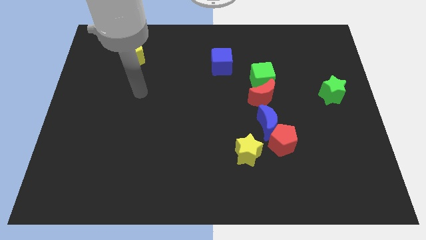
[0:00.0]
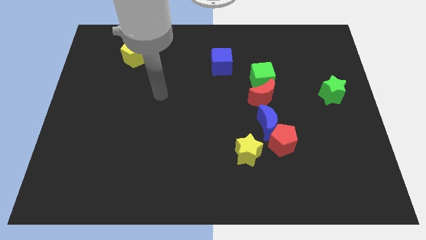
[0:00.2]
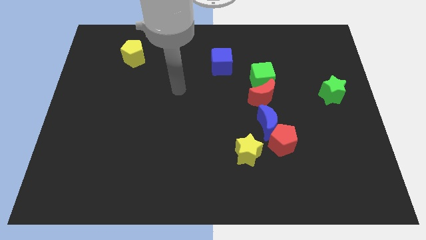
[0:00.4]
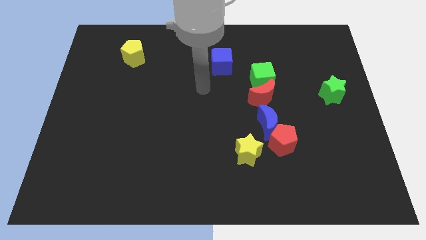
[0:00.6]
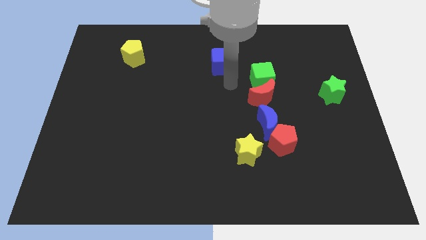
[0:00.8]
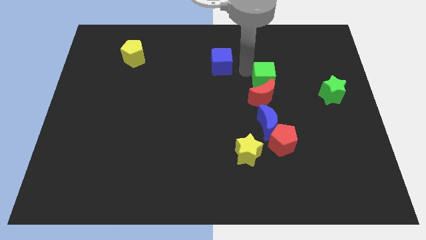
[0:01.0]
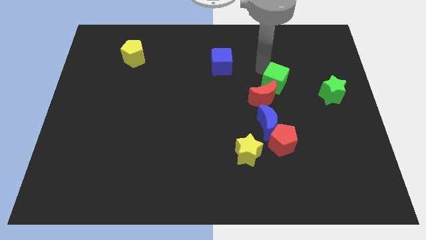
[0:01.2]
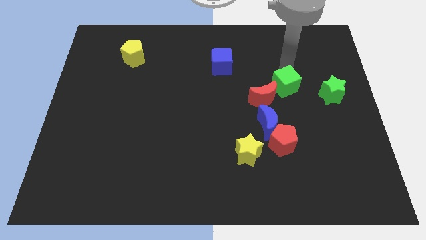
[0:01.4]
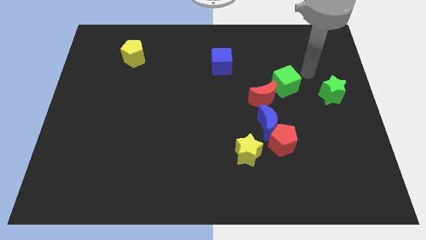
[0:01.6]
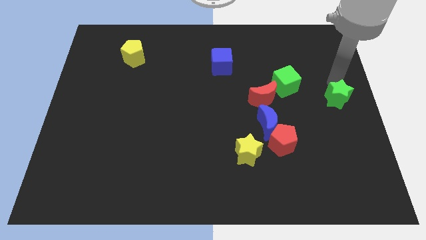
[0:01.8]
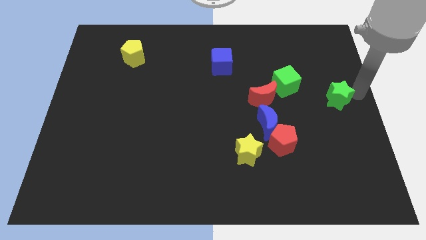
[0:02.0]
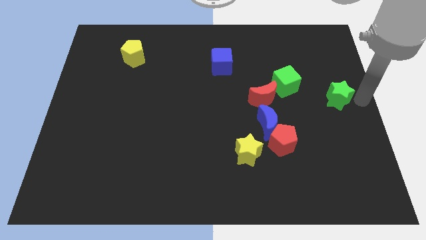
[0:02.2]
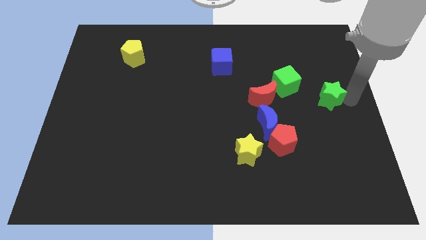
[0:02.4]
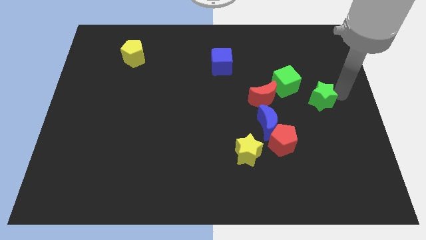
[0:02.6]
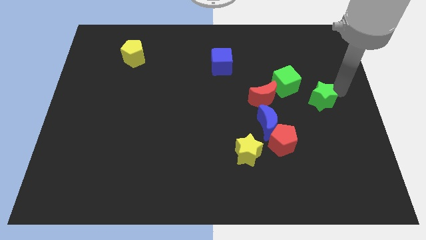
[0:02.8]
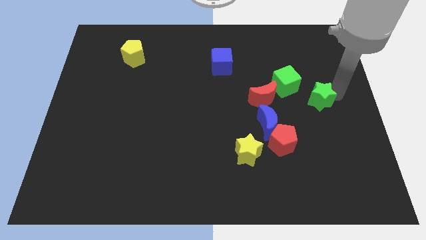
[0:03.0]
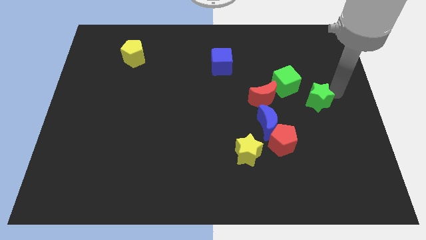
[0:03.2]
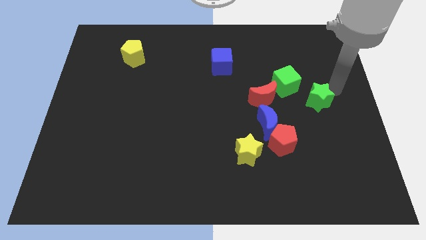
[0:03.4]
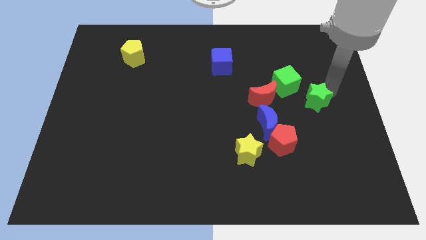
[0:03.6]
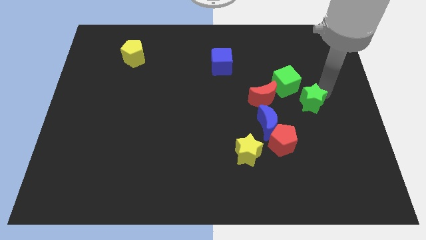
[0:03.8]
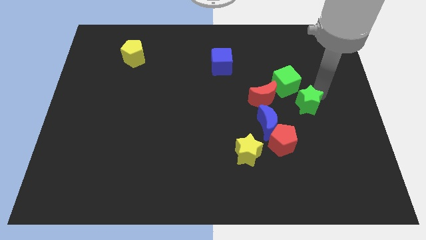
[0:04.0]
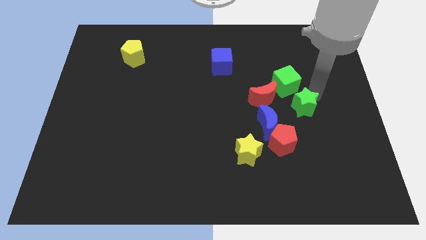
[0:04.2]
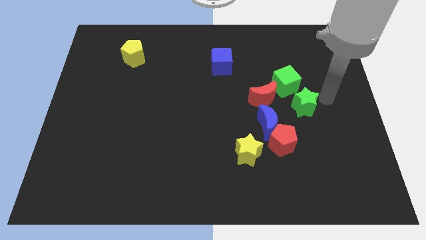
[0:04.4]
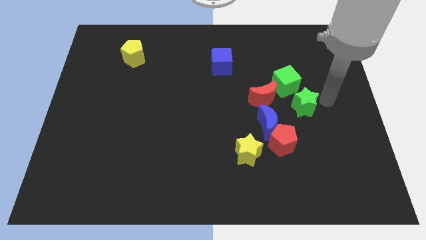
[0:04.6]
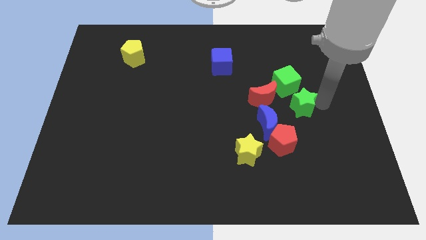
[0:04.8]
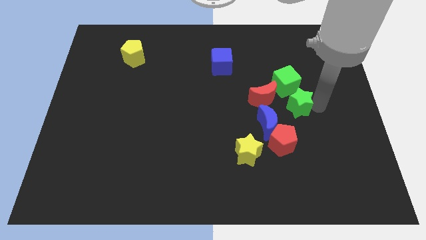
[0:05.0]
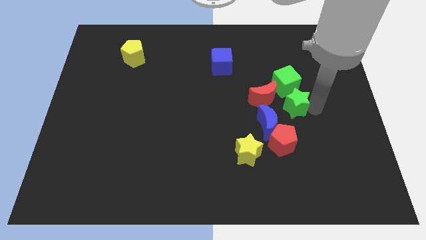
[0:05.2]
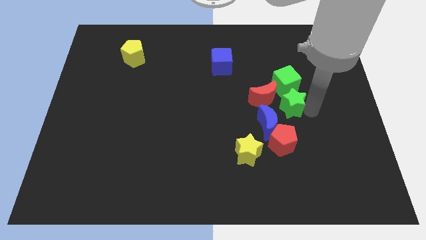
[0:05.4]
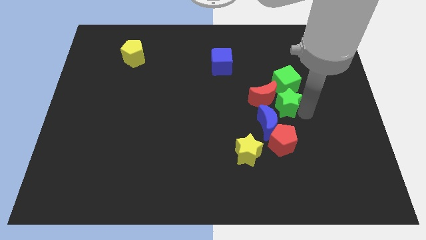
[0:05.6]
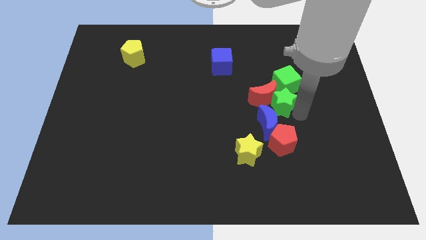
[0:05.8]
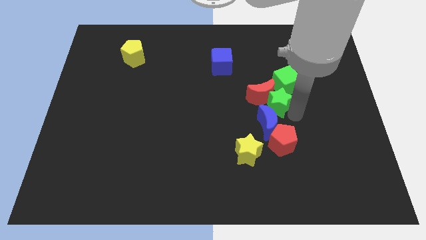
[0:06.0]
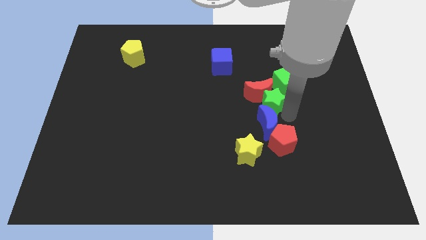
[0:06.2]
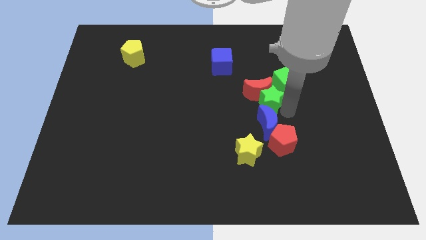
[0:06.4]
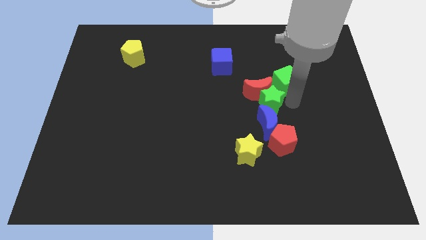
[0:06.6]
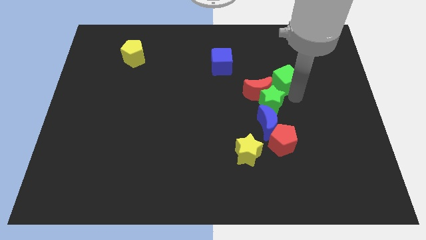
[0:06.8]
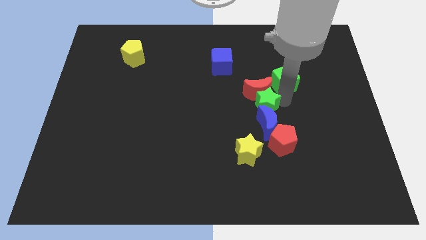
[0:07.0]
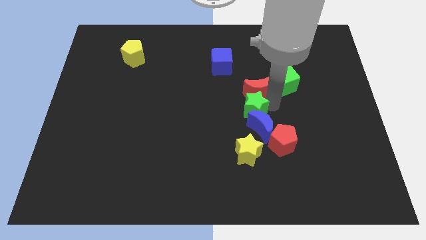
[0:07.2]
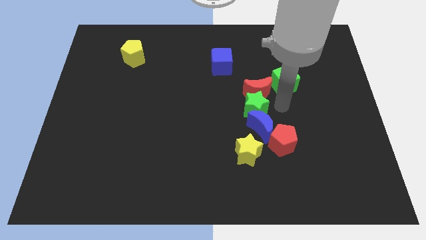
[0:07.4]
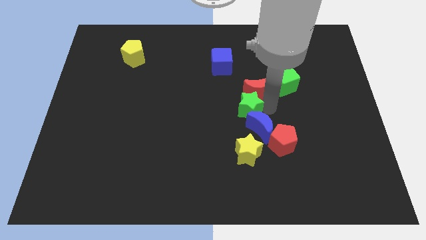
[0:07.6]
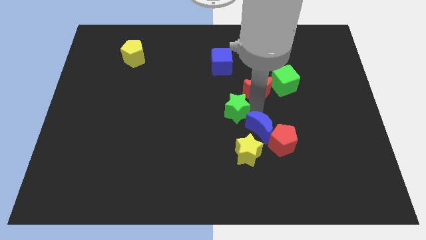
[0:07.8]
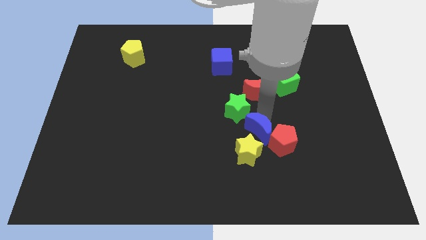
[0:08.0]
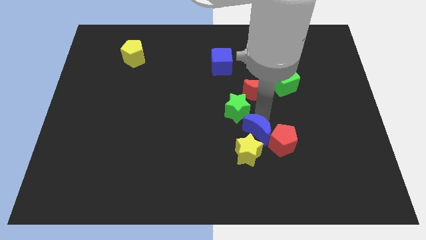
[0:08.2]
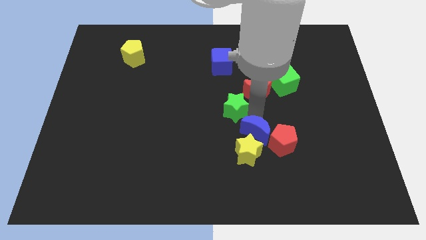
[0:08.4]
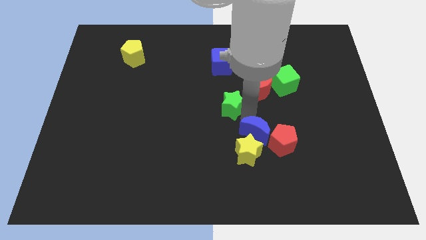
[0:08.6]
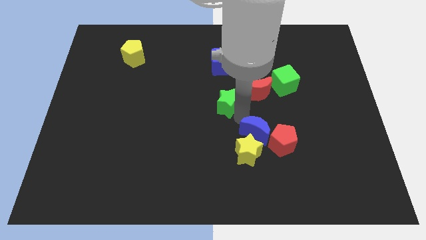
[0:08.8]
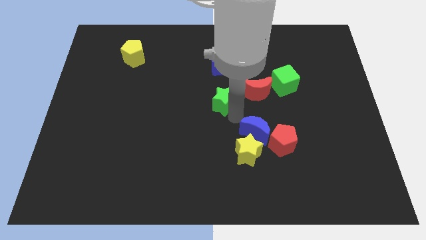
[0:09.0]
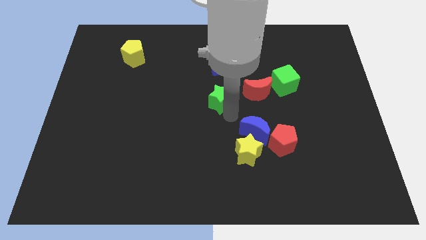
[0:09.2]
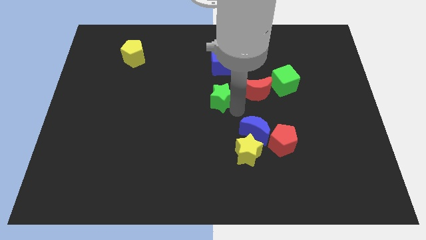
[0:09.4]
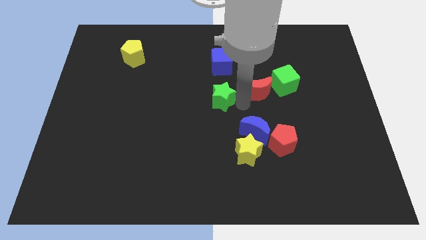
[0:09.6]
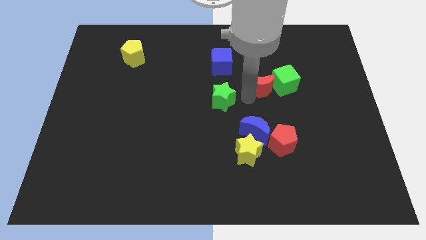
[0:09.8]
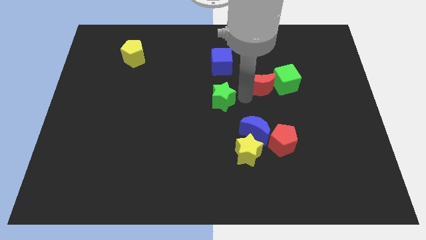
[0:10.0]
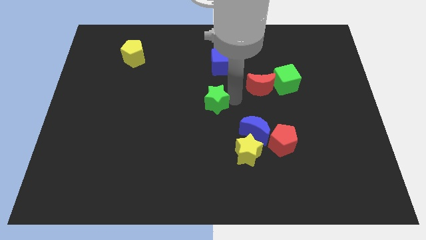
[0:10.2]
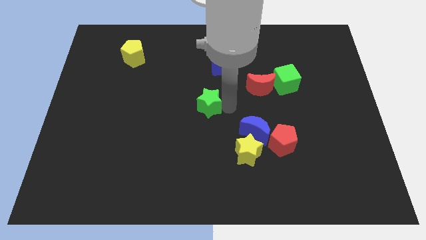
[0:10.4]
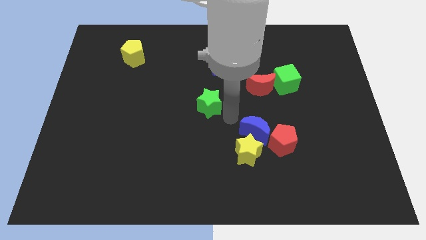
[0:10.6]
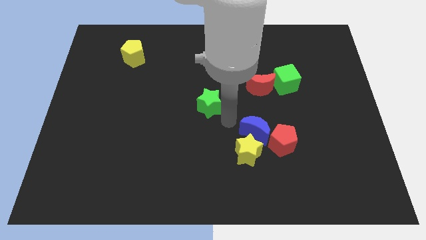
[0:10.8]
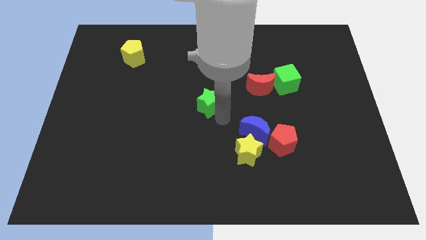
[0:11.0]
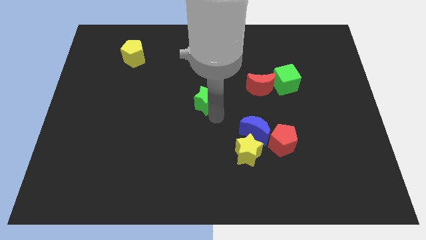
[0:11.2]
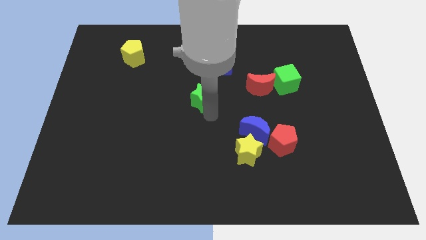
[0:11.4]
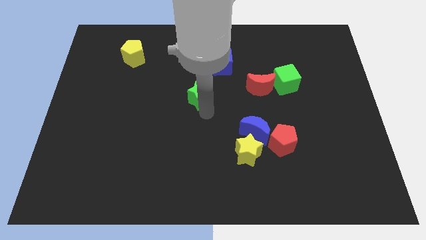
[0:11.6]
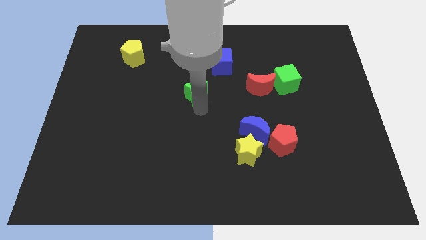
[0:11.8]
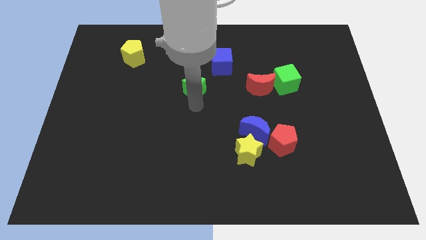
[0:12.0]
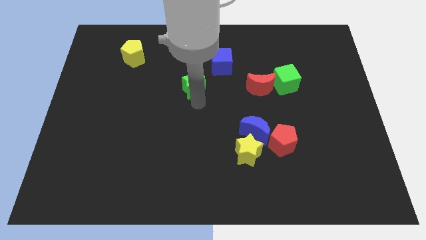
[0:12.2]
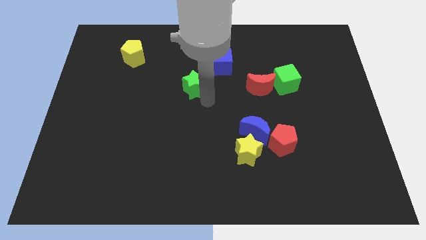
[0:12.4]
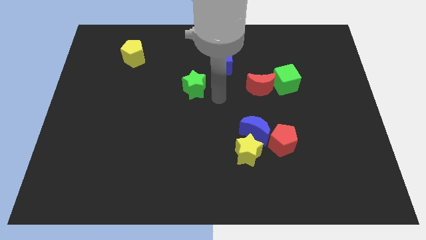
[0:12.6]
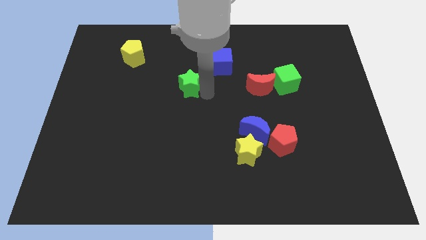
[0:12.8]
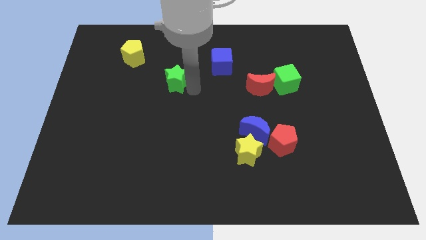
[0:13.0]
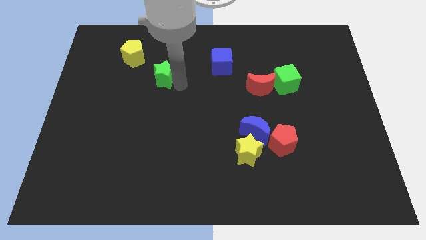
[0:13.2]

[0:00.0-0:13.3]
move the green star to the bottom right side of the yellow pentagon

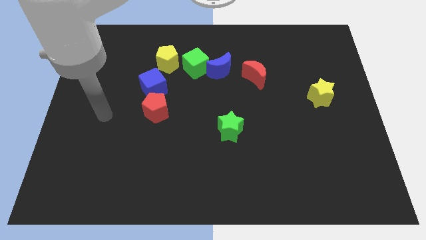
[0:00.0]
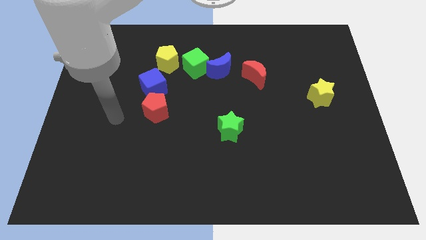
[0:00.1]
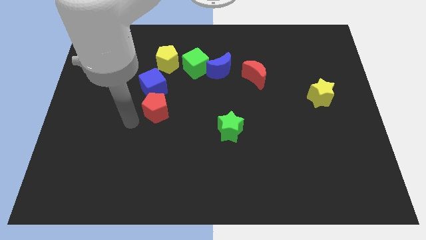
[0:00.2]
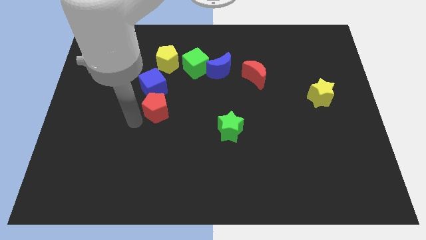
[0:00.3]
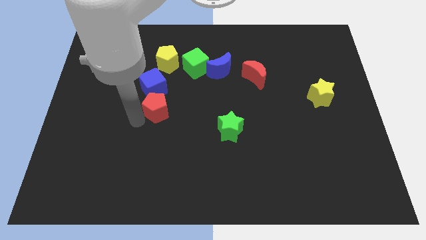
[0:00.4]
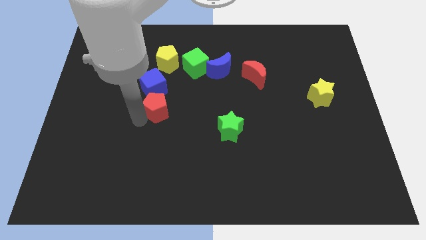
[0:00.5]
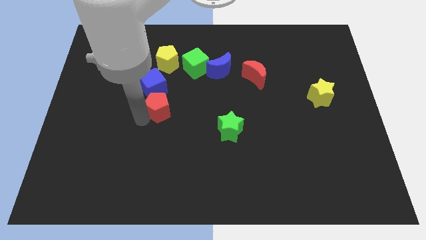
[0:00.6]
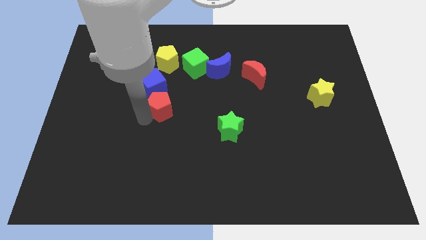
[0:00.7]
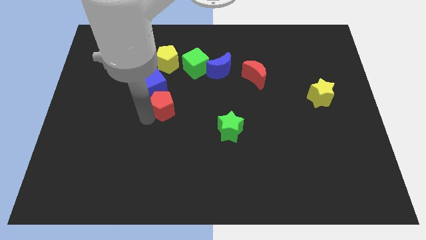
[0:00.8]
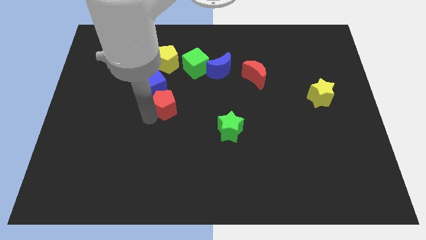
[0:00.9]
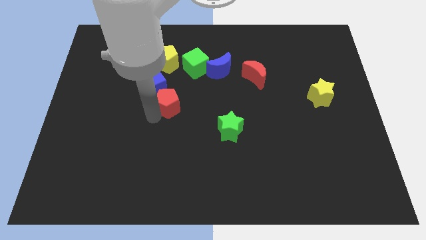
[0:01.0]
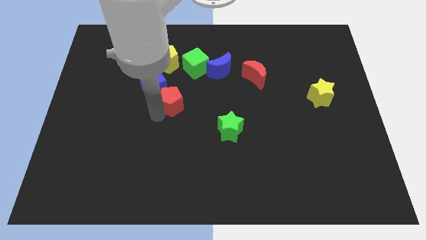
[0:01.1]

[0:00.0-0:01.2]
slide the red pentagon to the right of the blue cube

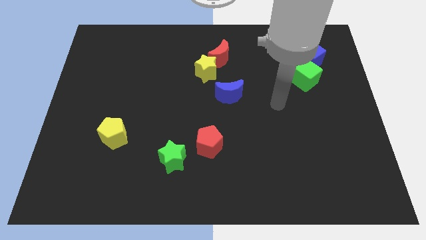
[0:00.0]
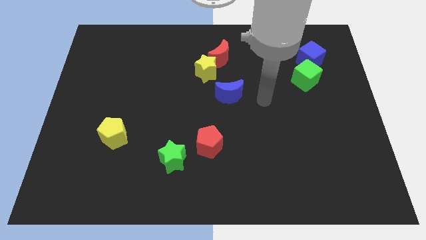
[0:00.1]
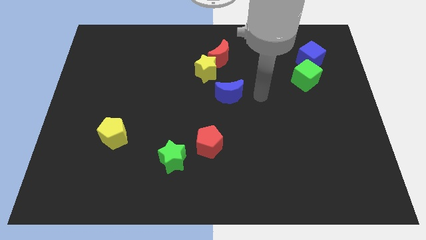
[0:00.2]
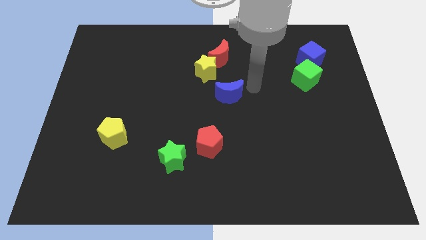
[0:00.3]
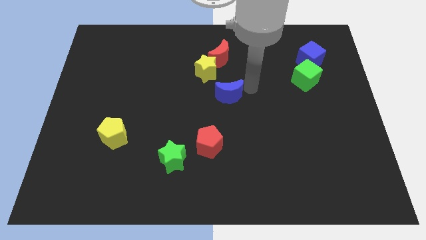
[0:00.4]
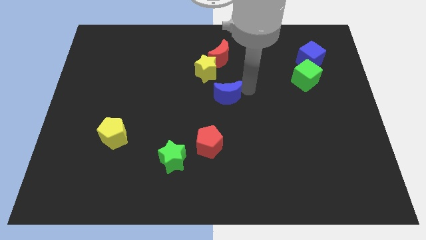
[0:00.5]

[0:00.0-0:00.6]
move the blue moon to the bottom of the yellow star
